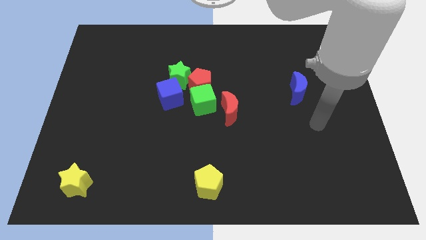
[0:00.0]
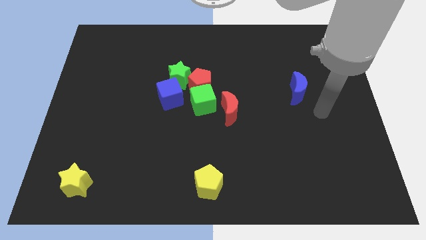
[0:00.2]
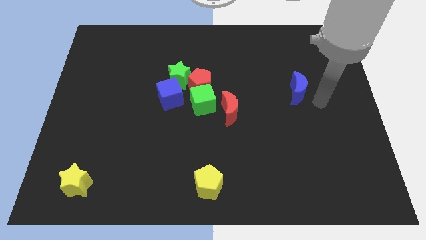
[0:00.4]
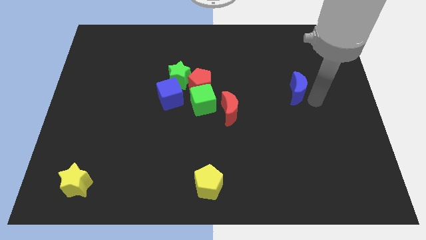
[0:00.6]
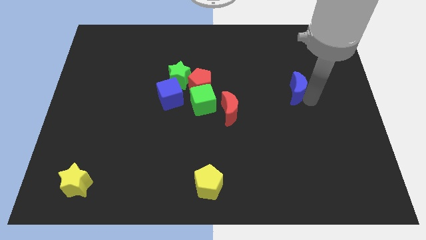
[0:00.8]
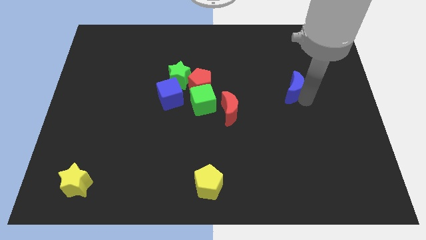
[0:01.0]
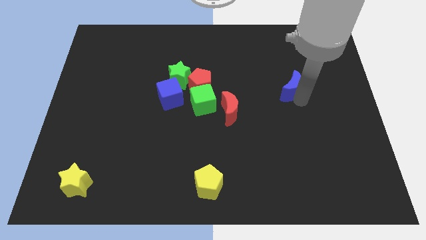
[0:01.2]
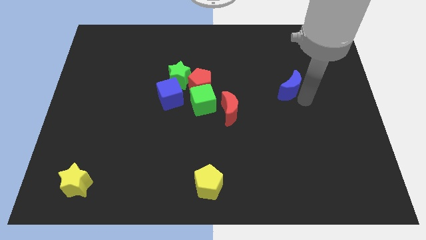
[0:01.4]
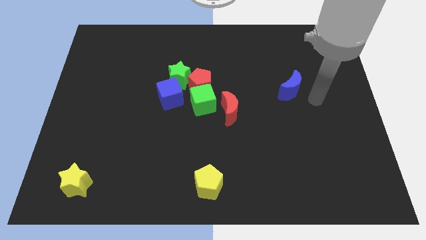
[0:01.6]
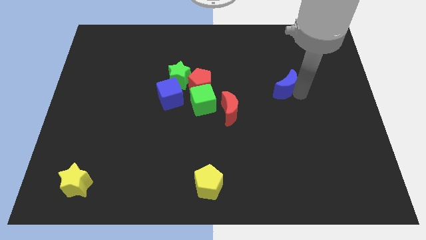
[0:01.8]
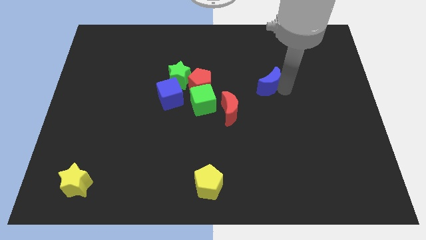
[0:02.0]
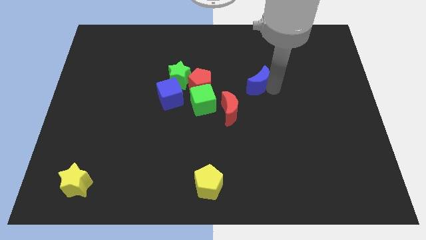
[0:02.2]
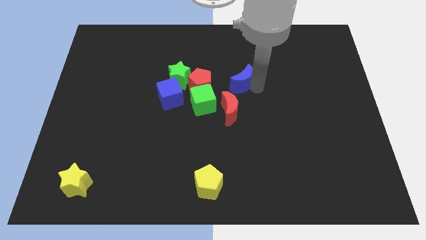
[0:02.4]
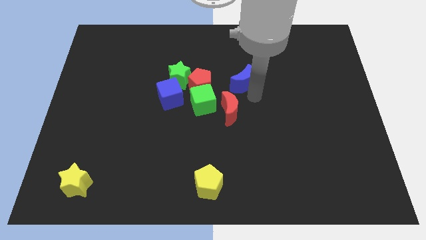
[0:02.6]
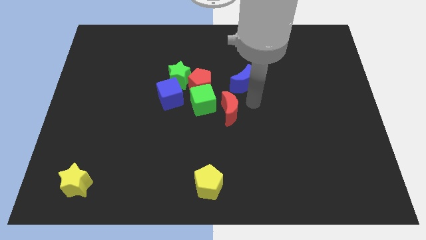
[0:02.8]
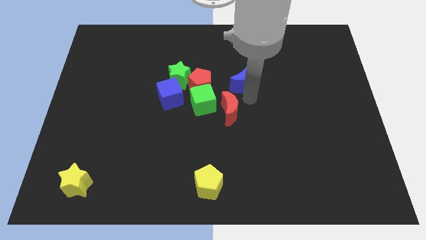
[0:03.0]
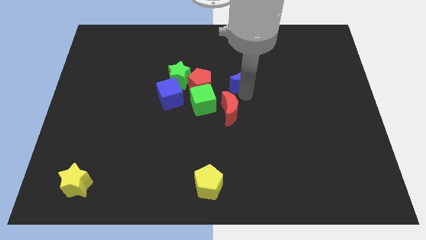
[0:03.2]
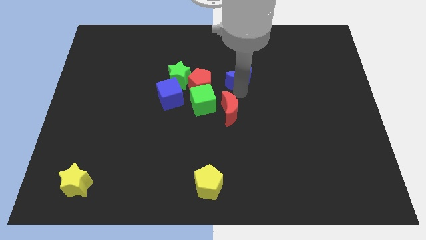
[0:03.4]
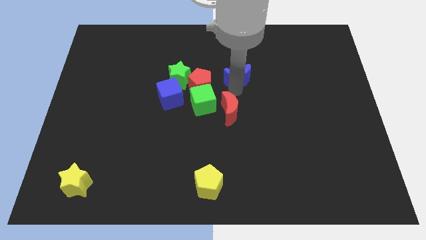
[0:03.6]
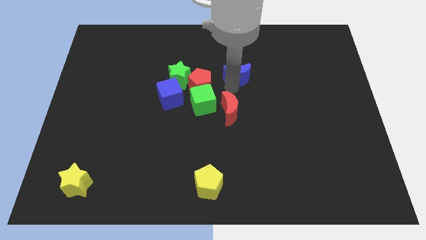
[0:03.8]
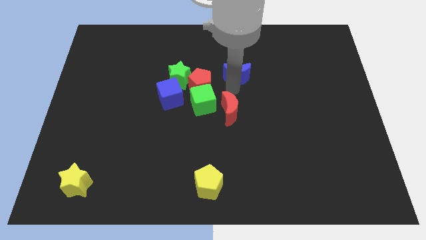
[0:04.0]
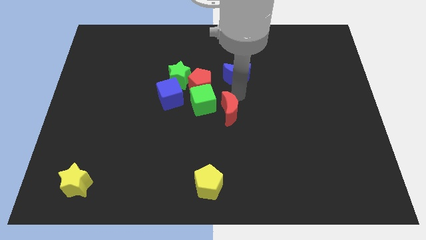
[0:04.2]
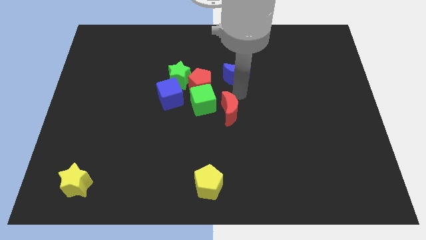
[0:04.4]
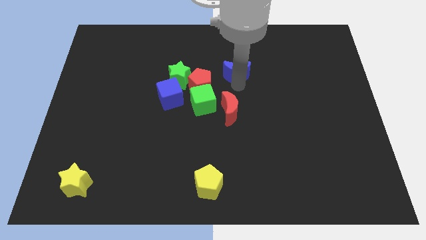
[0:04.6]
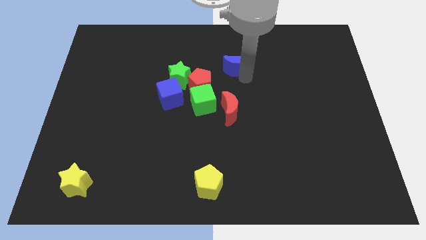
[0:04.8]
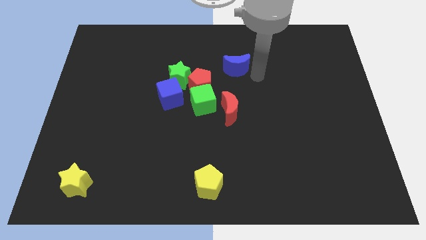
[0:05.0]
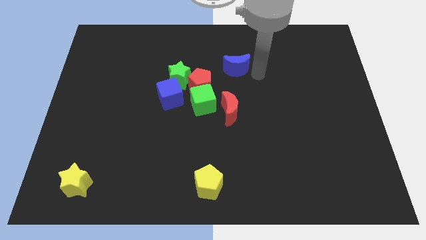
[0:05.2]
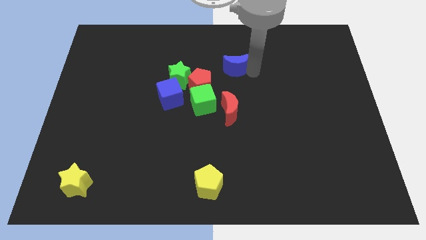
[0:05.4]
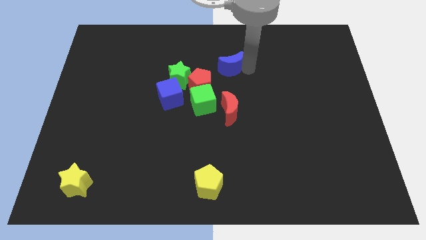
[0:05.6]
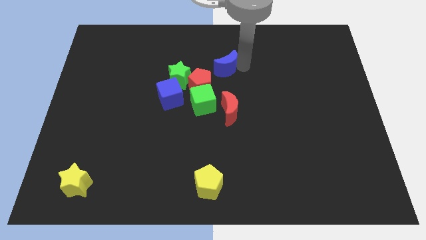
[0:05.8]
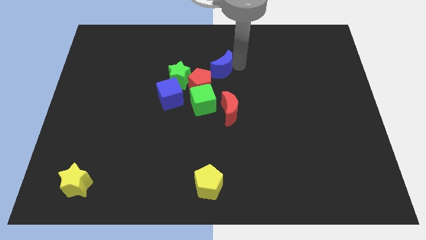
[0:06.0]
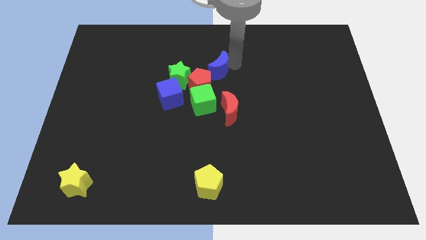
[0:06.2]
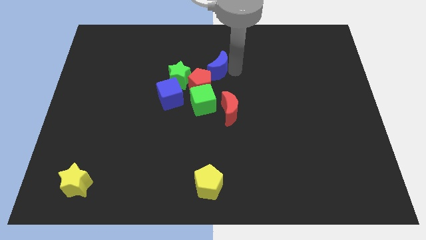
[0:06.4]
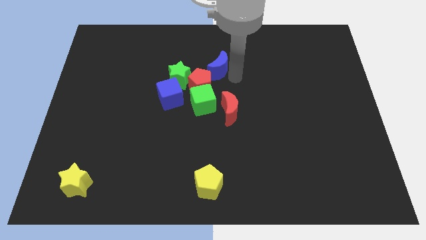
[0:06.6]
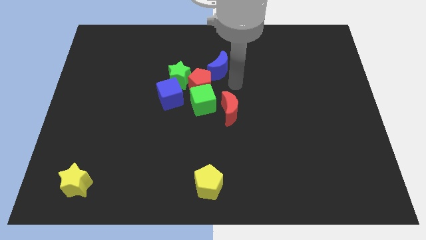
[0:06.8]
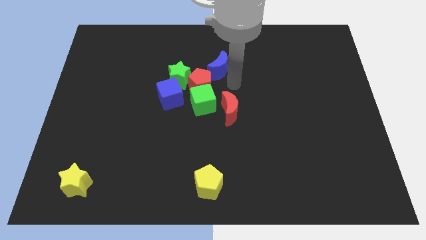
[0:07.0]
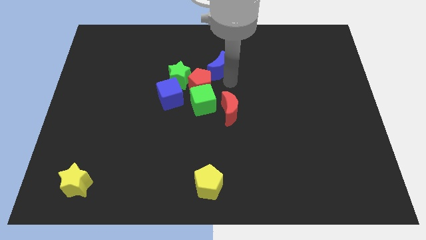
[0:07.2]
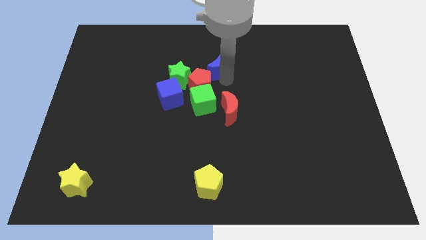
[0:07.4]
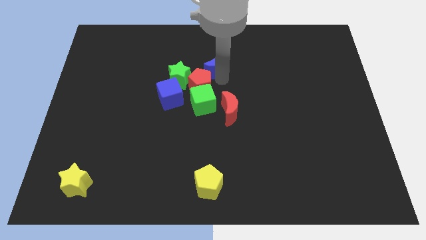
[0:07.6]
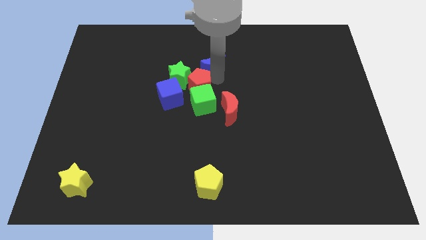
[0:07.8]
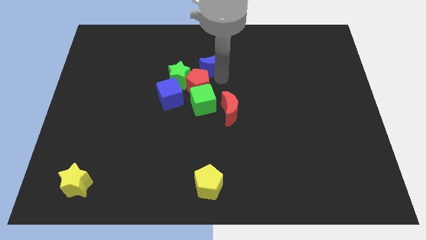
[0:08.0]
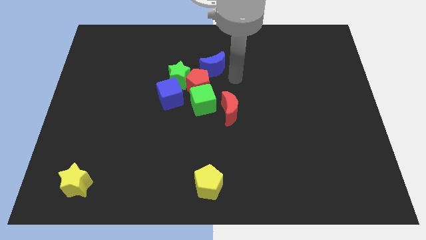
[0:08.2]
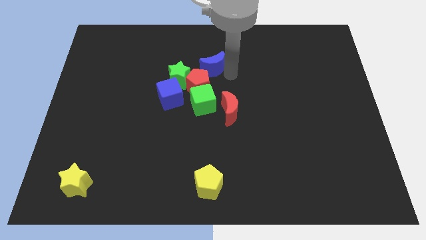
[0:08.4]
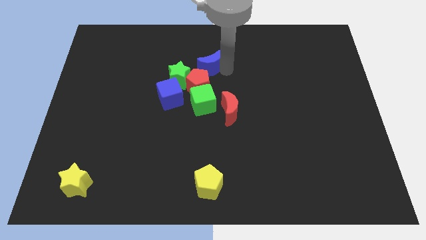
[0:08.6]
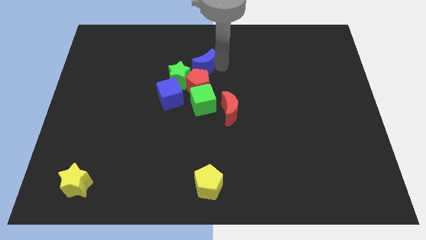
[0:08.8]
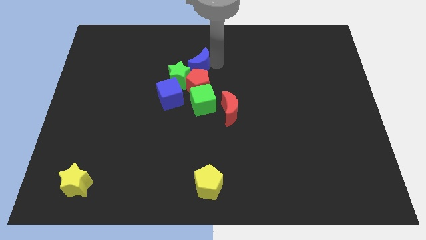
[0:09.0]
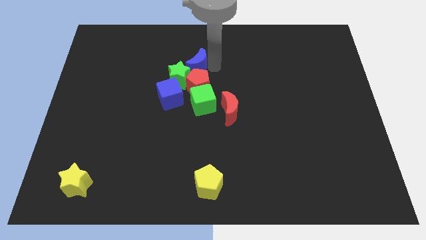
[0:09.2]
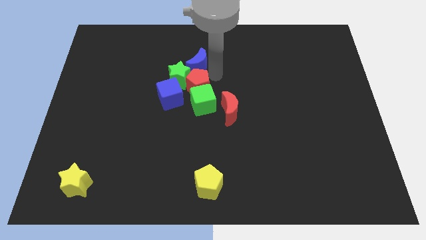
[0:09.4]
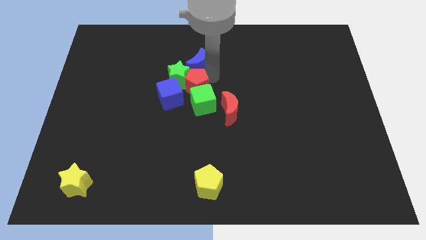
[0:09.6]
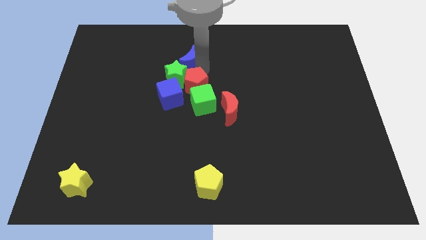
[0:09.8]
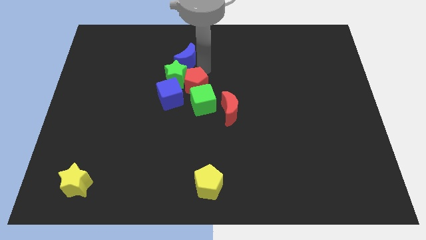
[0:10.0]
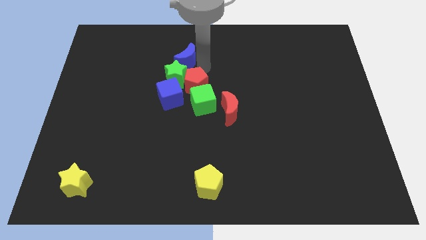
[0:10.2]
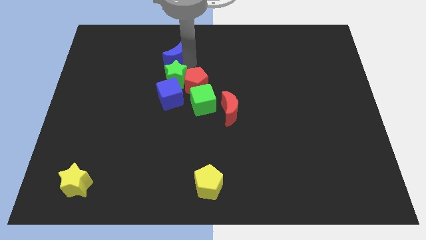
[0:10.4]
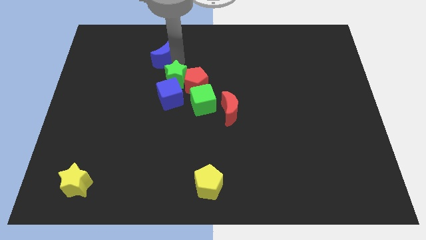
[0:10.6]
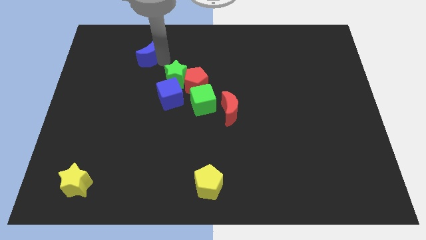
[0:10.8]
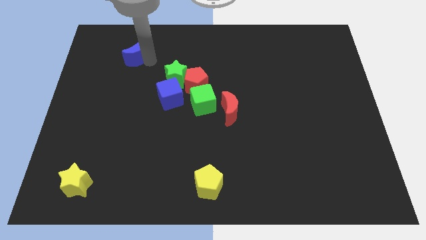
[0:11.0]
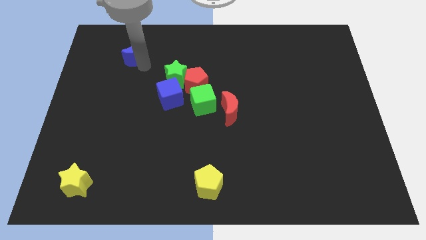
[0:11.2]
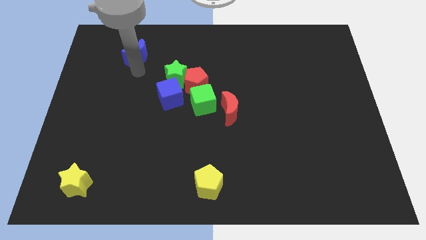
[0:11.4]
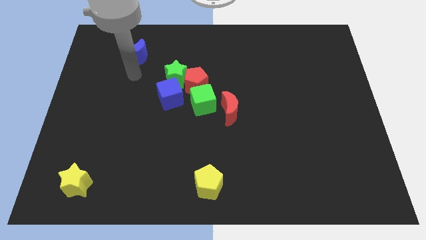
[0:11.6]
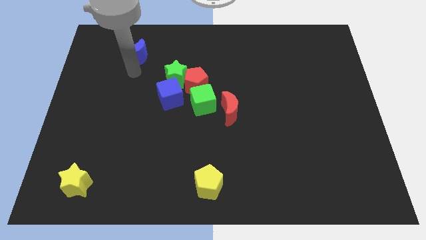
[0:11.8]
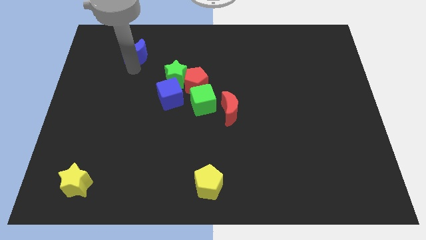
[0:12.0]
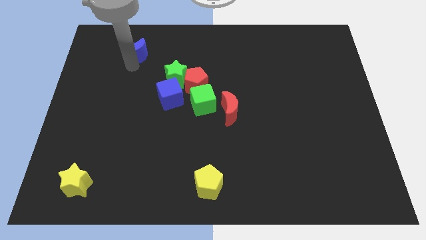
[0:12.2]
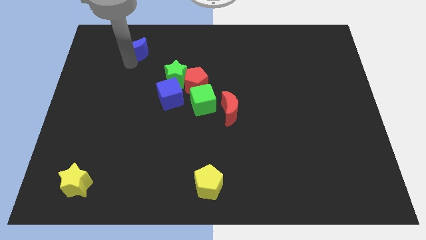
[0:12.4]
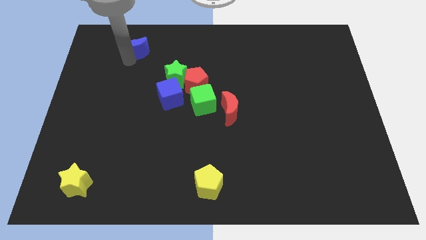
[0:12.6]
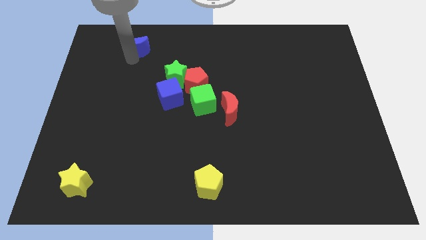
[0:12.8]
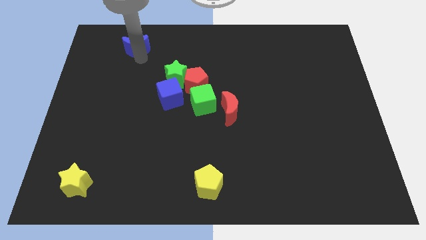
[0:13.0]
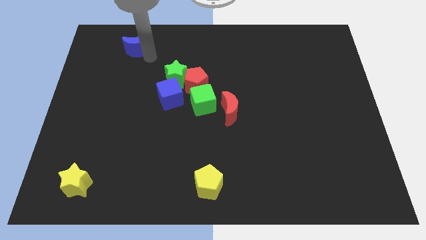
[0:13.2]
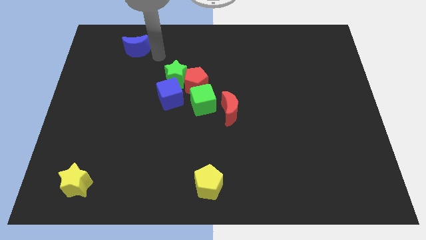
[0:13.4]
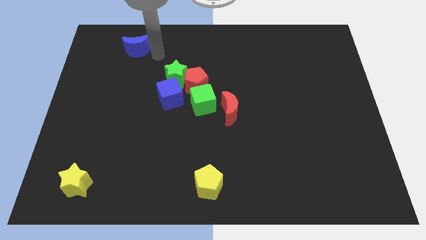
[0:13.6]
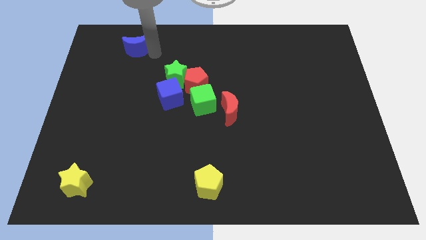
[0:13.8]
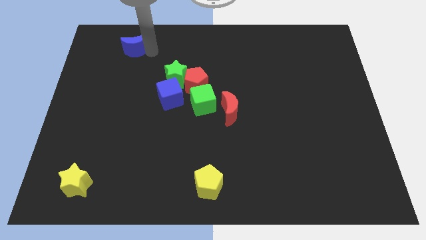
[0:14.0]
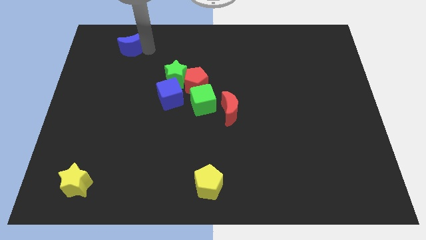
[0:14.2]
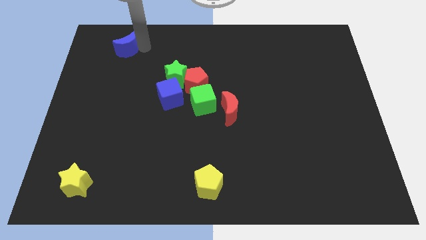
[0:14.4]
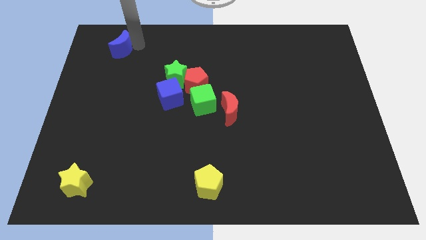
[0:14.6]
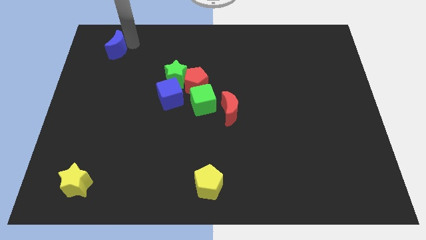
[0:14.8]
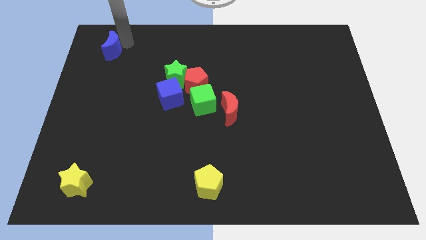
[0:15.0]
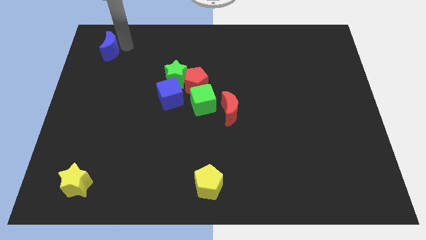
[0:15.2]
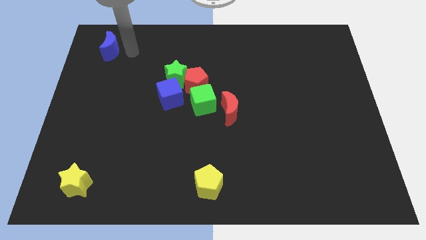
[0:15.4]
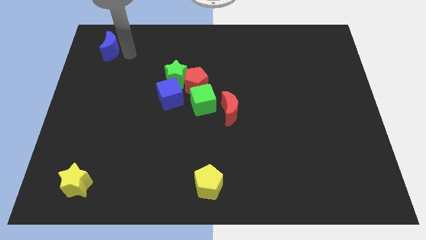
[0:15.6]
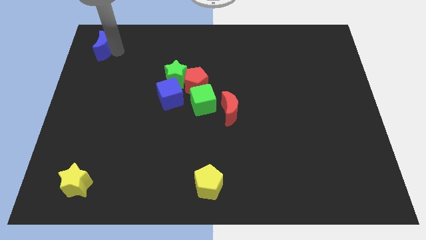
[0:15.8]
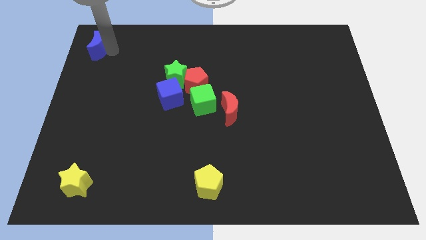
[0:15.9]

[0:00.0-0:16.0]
slide the blue moon to the top left of the board
